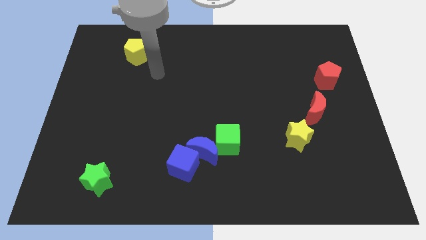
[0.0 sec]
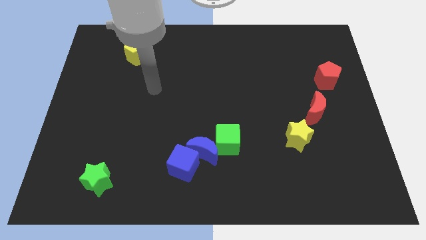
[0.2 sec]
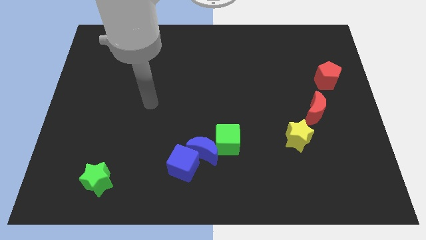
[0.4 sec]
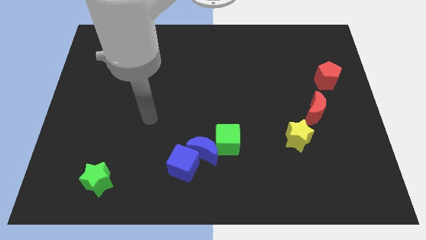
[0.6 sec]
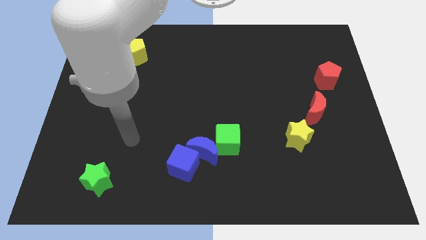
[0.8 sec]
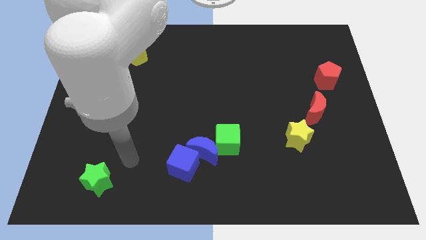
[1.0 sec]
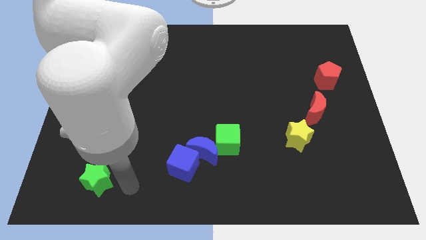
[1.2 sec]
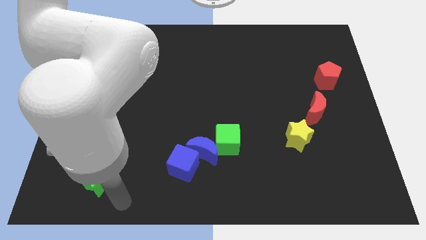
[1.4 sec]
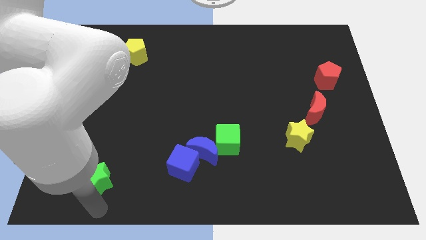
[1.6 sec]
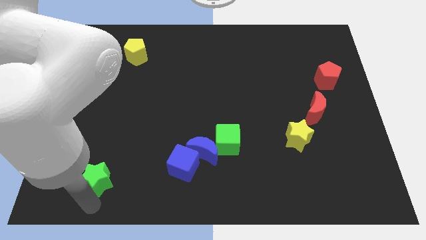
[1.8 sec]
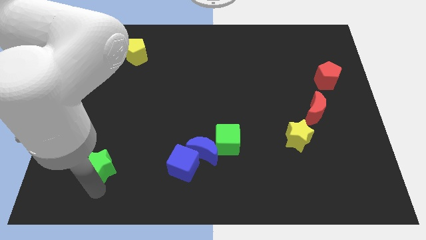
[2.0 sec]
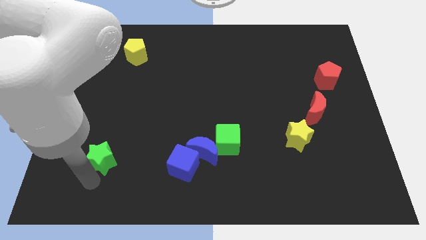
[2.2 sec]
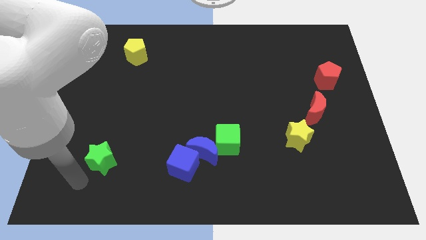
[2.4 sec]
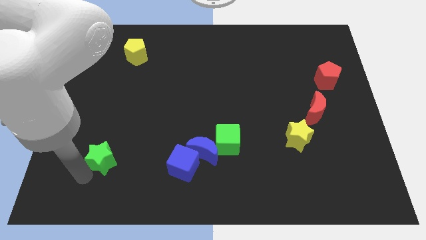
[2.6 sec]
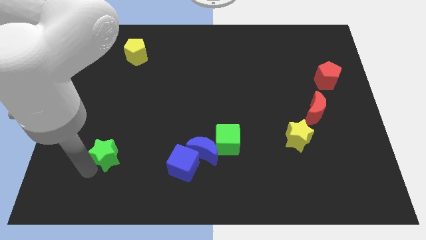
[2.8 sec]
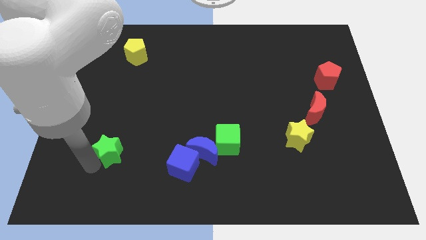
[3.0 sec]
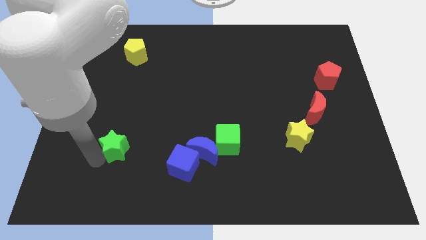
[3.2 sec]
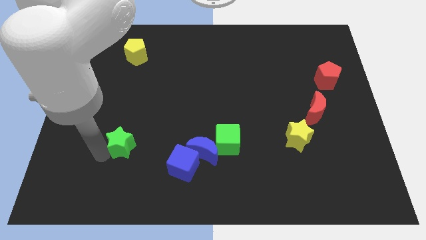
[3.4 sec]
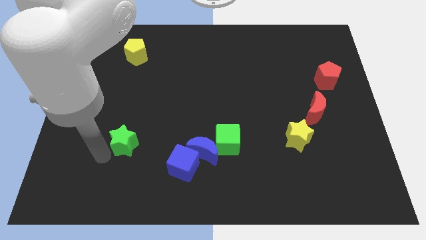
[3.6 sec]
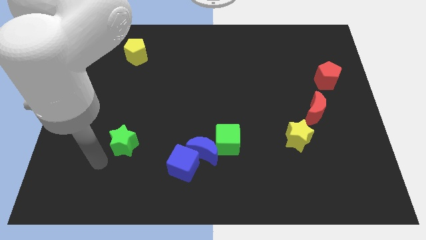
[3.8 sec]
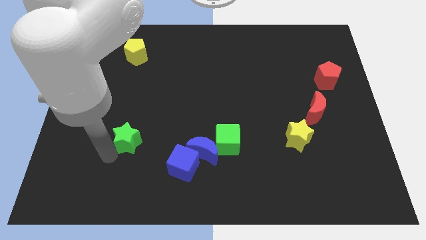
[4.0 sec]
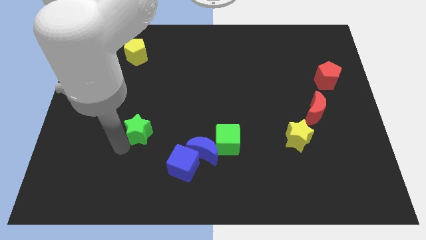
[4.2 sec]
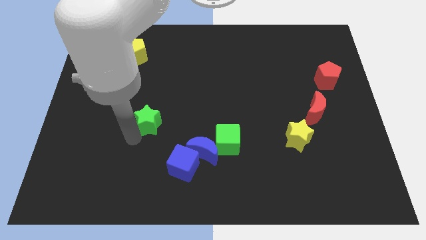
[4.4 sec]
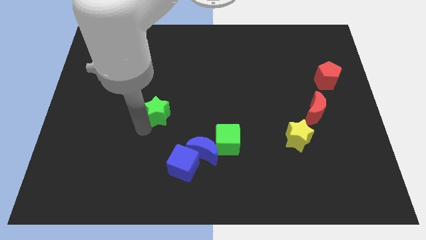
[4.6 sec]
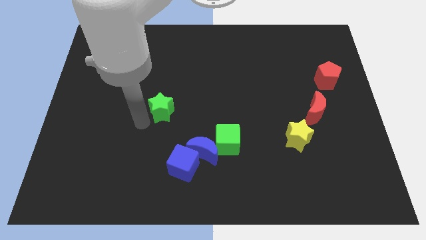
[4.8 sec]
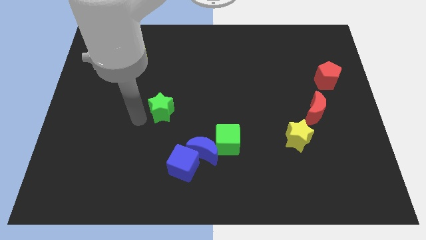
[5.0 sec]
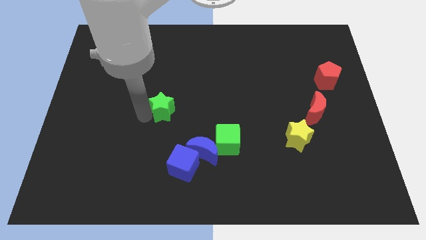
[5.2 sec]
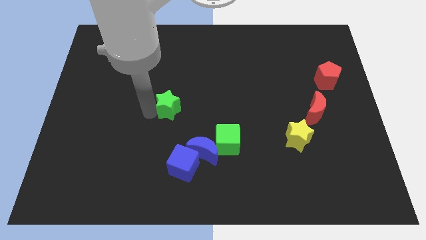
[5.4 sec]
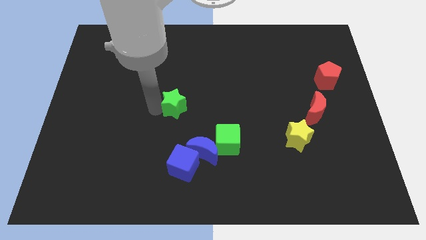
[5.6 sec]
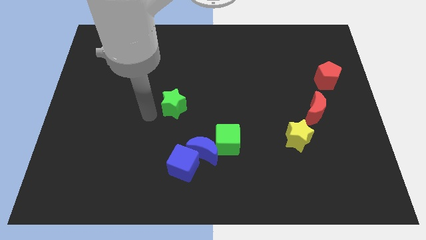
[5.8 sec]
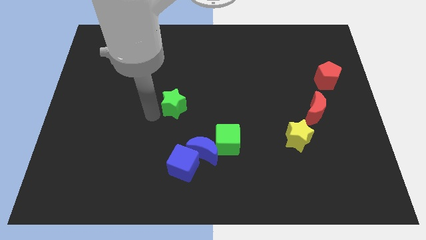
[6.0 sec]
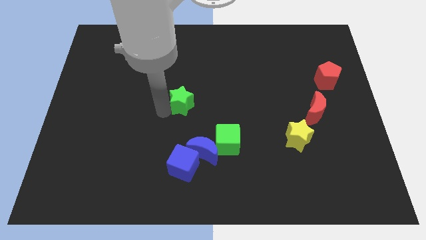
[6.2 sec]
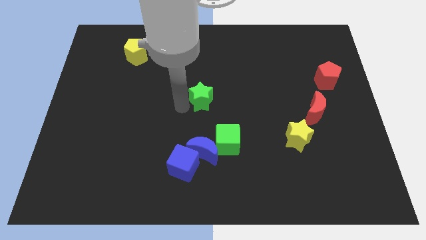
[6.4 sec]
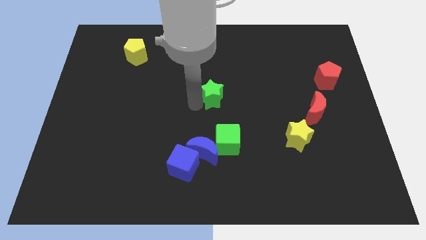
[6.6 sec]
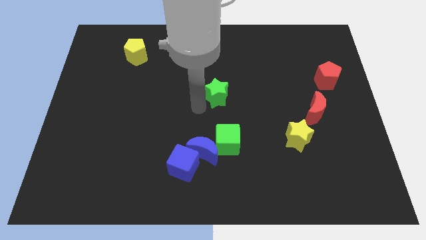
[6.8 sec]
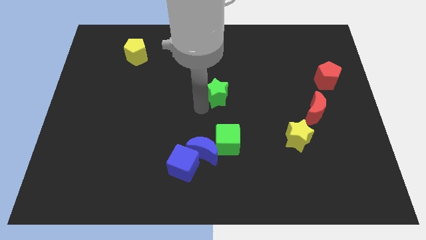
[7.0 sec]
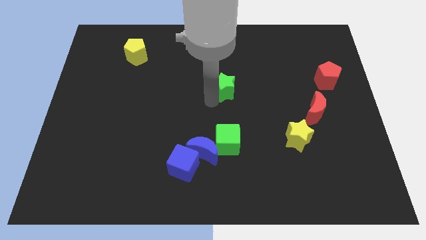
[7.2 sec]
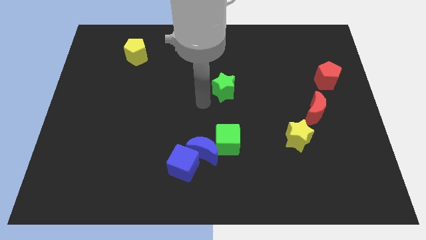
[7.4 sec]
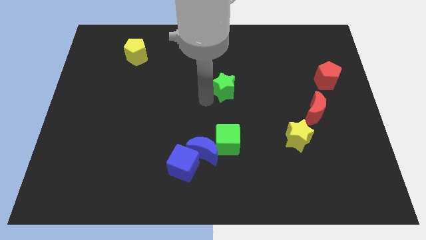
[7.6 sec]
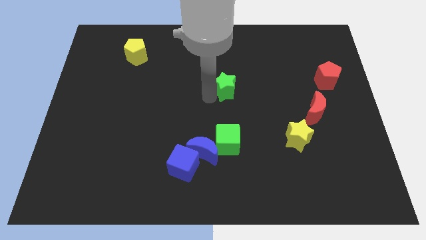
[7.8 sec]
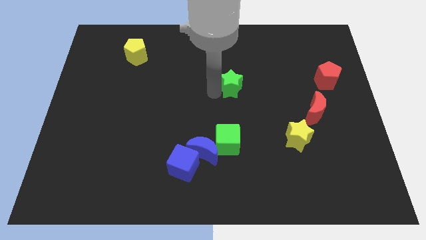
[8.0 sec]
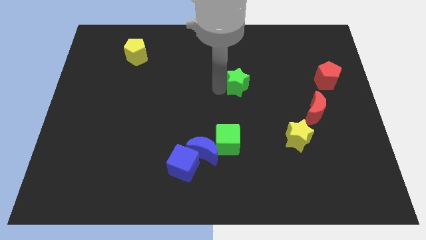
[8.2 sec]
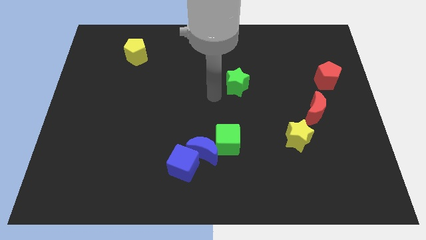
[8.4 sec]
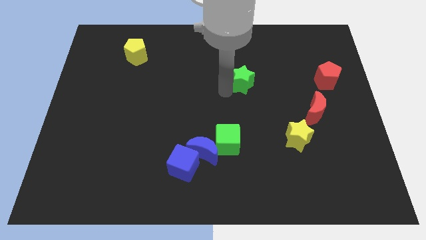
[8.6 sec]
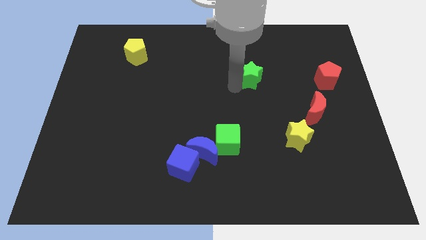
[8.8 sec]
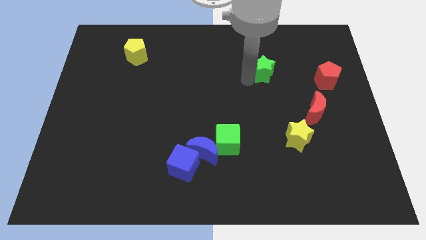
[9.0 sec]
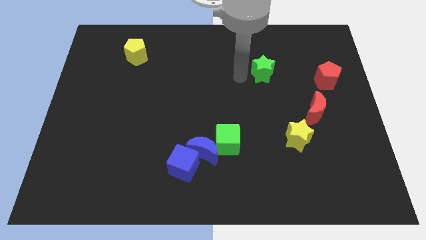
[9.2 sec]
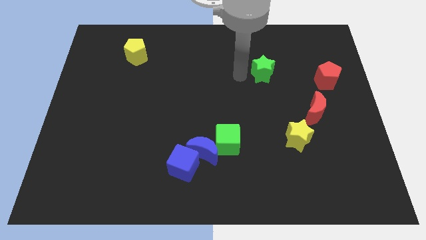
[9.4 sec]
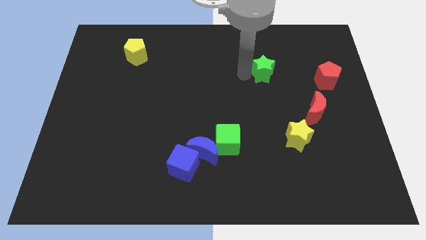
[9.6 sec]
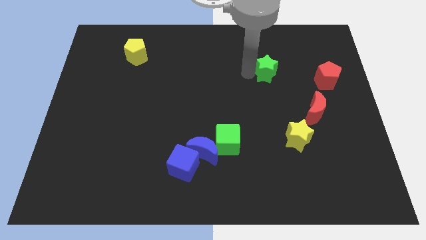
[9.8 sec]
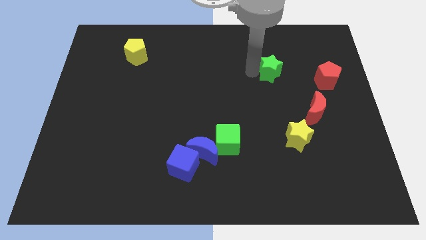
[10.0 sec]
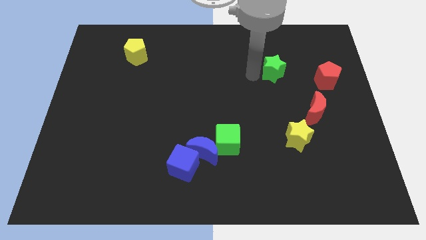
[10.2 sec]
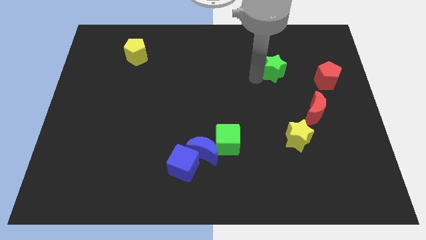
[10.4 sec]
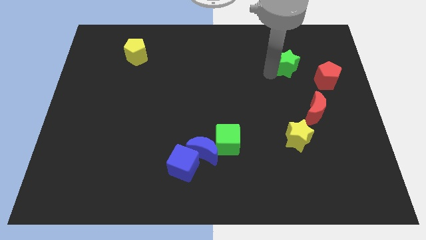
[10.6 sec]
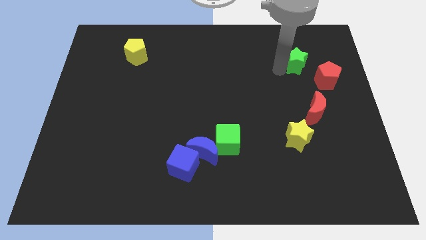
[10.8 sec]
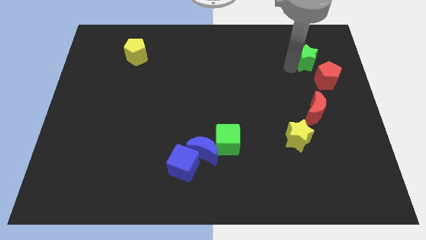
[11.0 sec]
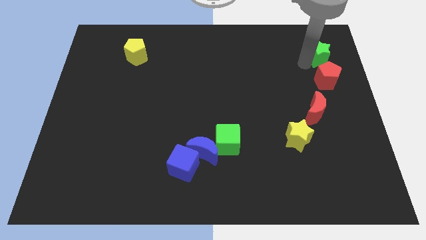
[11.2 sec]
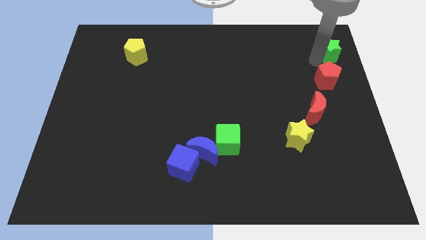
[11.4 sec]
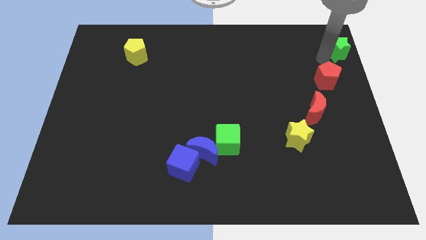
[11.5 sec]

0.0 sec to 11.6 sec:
put the green star to the top right

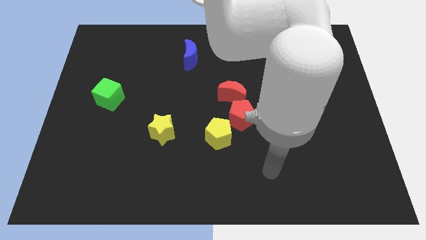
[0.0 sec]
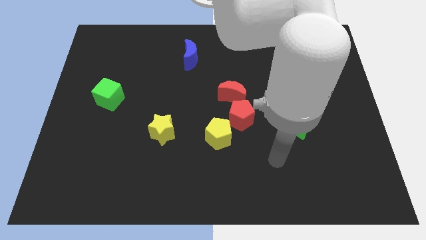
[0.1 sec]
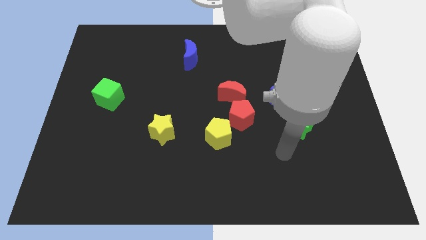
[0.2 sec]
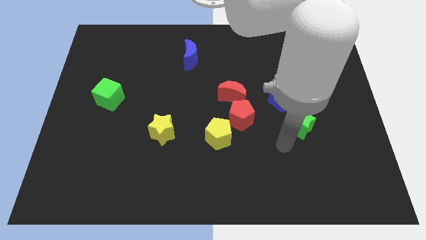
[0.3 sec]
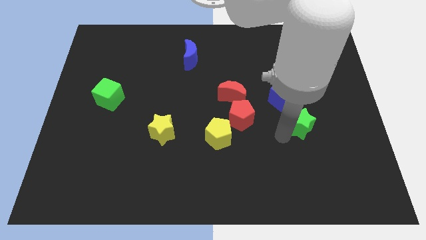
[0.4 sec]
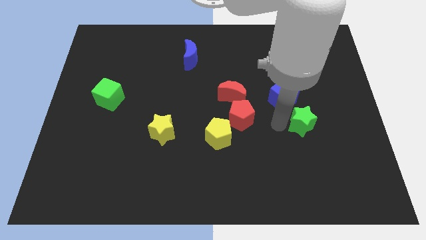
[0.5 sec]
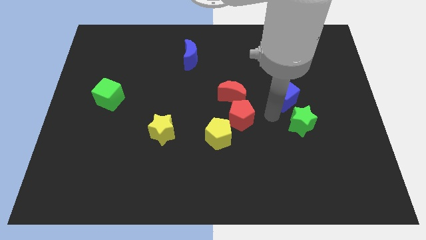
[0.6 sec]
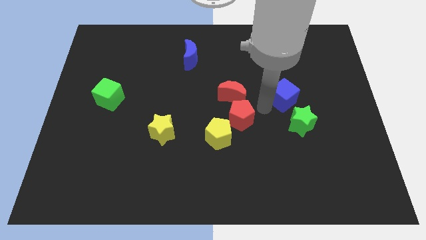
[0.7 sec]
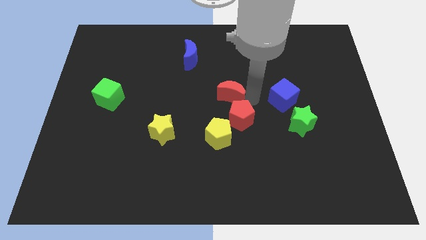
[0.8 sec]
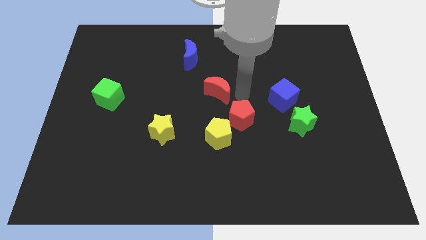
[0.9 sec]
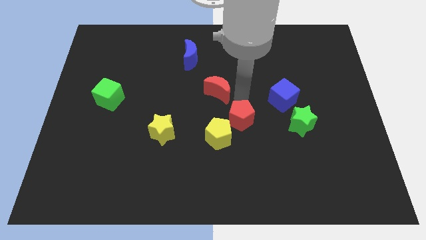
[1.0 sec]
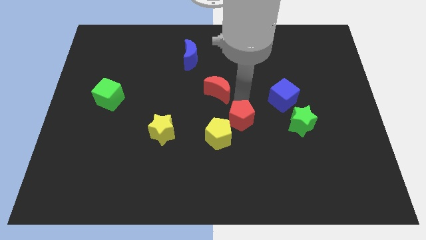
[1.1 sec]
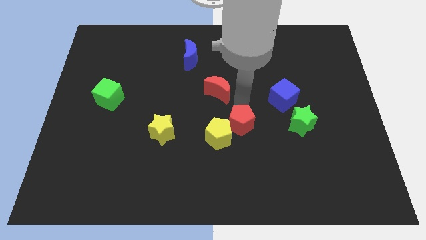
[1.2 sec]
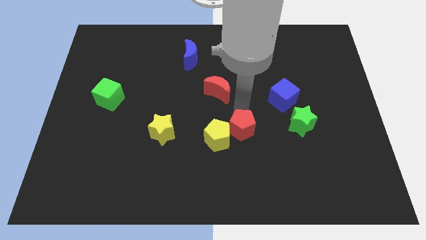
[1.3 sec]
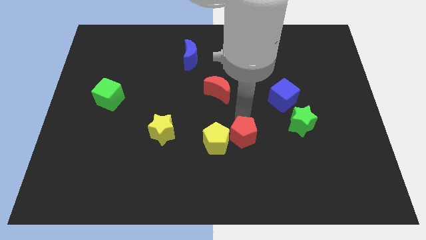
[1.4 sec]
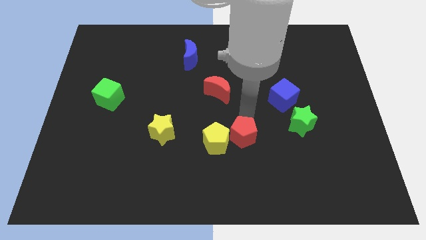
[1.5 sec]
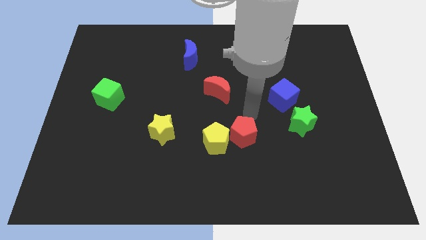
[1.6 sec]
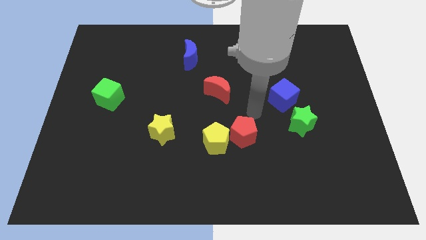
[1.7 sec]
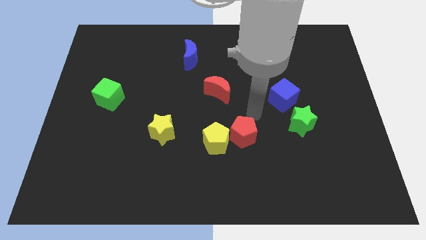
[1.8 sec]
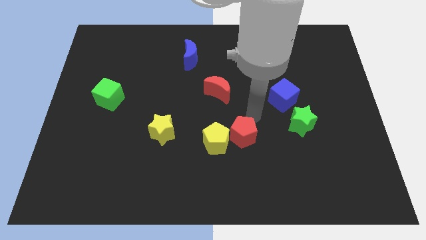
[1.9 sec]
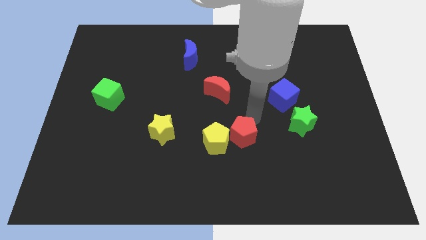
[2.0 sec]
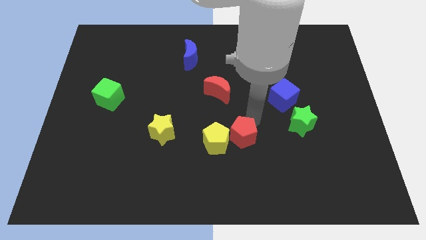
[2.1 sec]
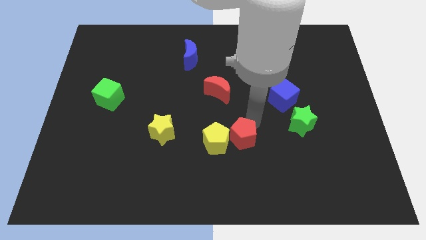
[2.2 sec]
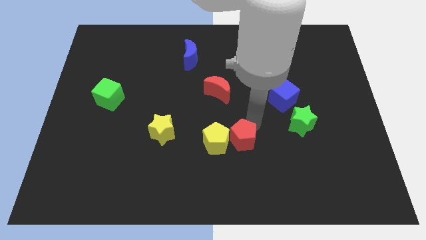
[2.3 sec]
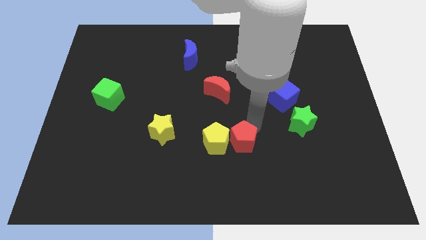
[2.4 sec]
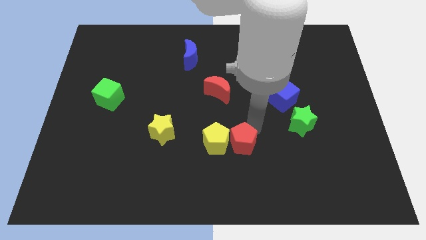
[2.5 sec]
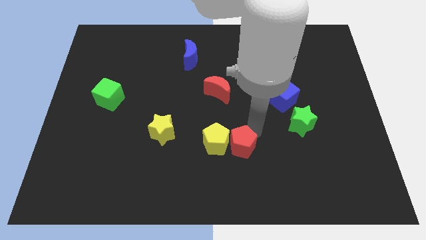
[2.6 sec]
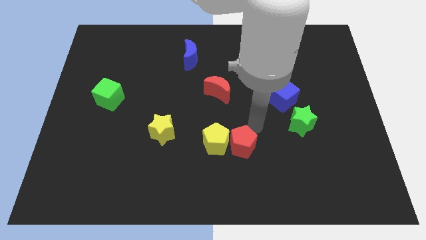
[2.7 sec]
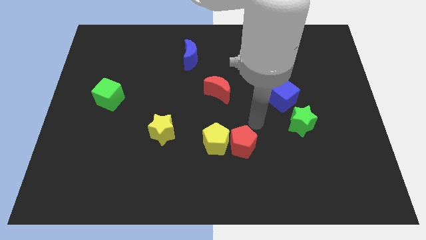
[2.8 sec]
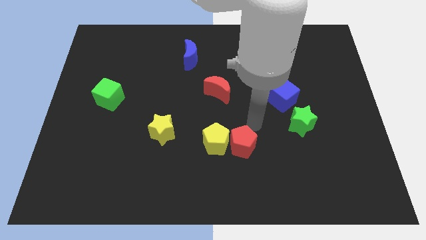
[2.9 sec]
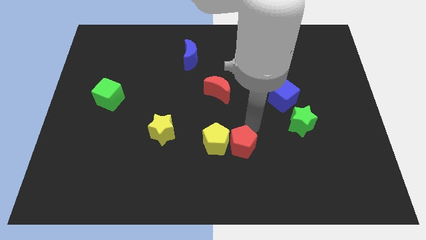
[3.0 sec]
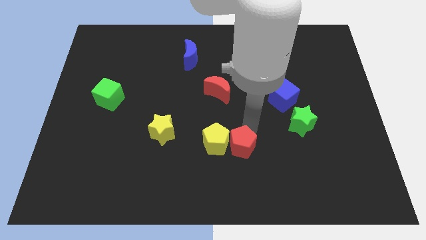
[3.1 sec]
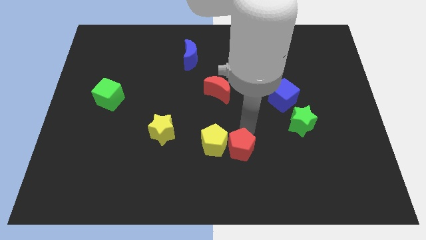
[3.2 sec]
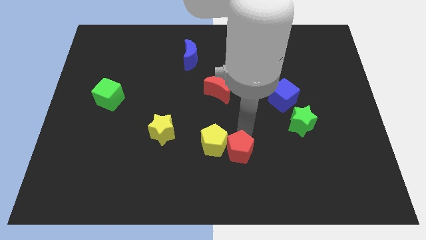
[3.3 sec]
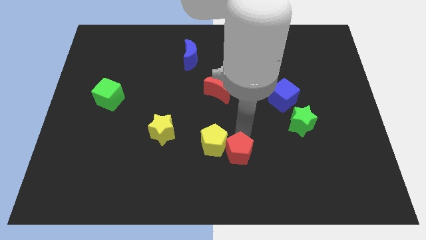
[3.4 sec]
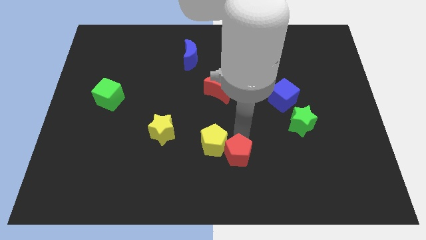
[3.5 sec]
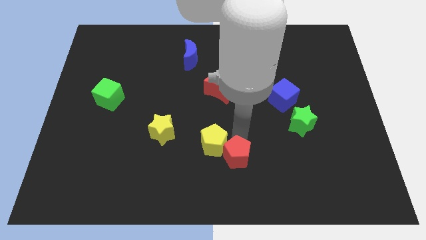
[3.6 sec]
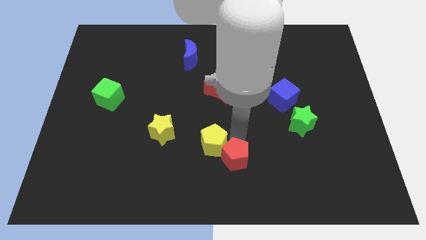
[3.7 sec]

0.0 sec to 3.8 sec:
slide the red pentagon to the bottom
